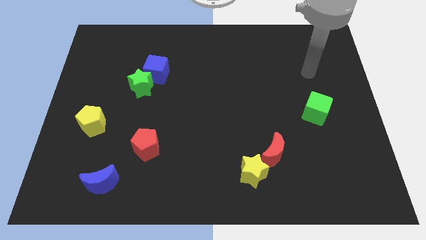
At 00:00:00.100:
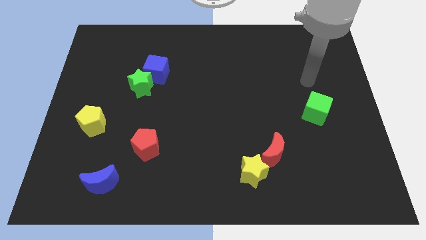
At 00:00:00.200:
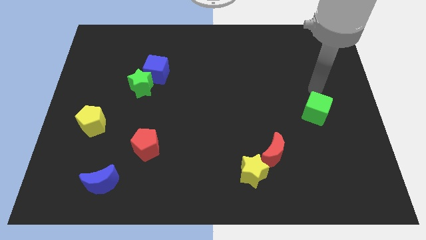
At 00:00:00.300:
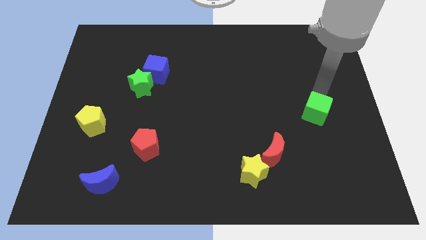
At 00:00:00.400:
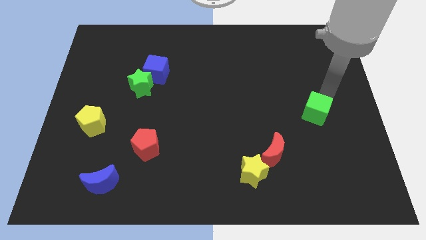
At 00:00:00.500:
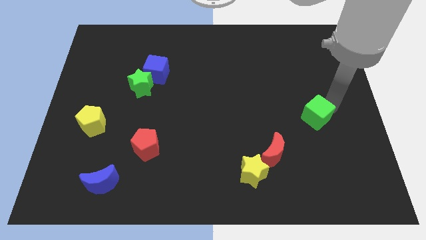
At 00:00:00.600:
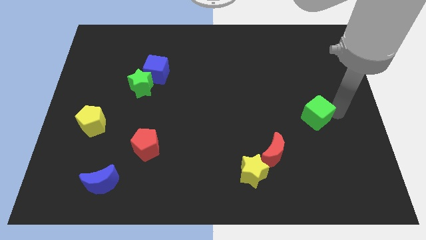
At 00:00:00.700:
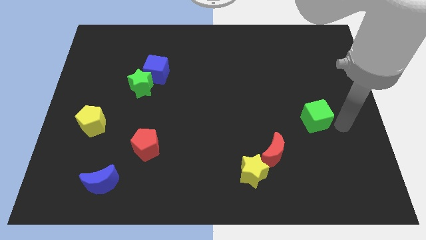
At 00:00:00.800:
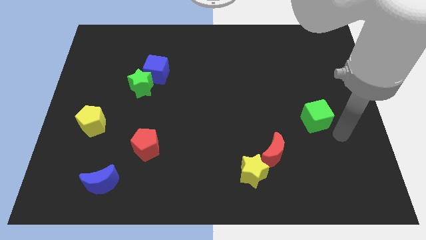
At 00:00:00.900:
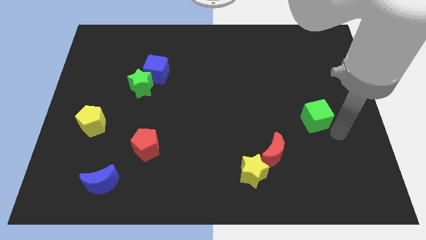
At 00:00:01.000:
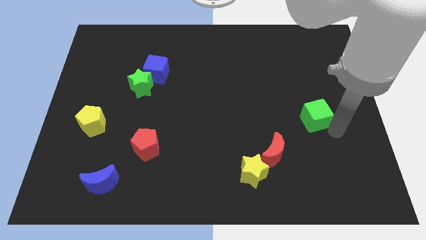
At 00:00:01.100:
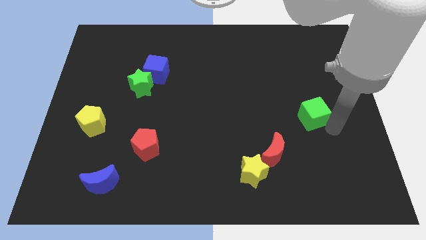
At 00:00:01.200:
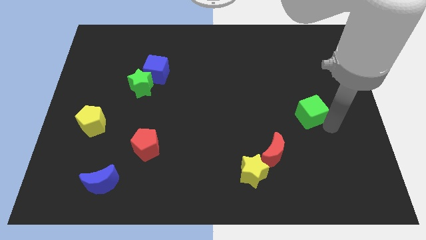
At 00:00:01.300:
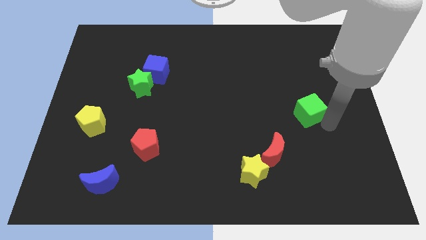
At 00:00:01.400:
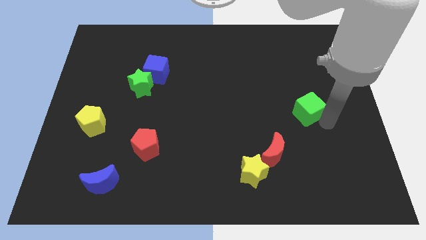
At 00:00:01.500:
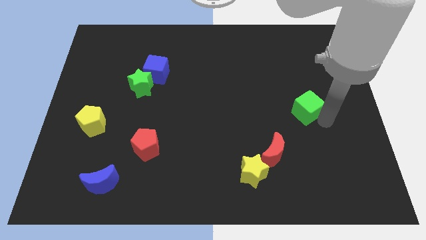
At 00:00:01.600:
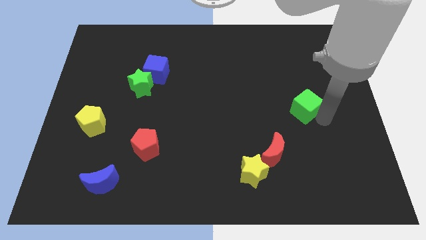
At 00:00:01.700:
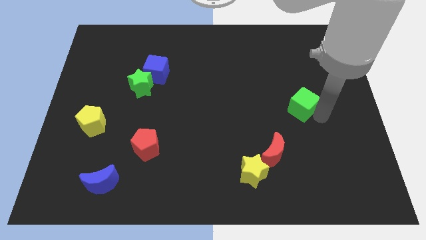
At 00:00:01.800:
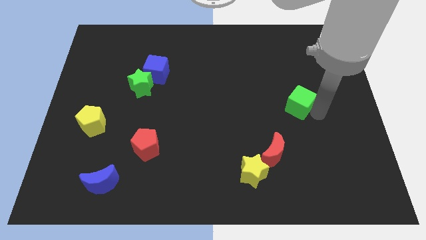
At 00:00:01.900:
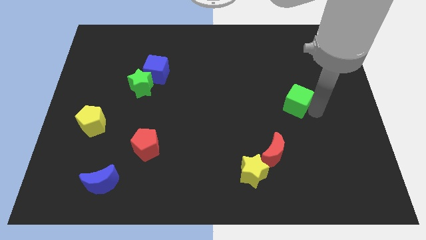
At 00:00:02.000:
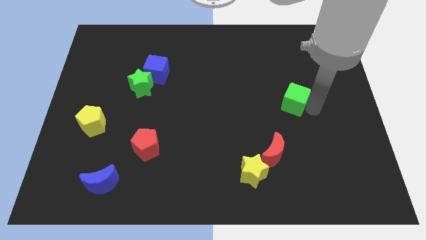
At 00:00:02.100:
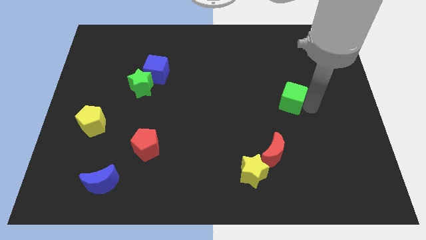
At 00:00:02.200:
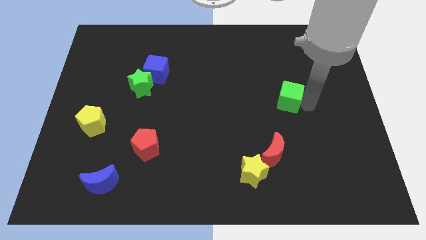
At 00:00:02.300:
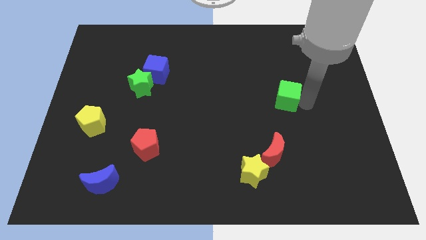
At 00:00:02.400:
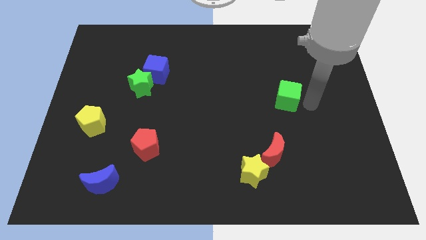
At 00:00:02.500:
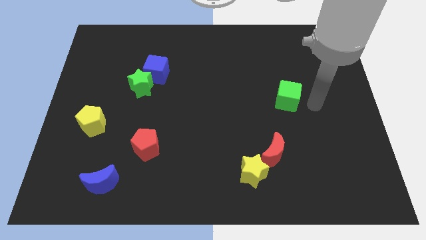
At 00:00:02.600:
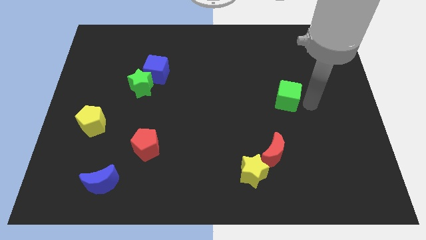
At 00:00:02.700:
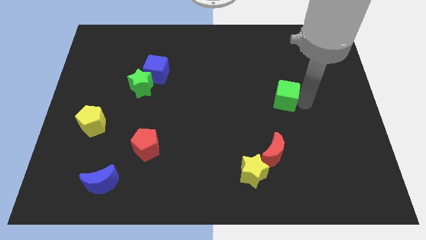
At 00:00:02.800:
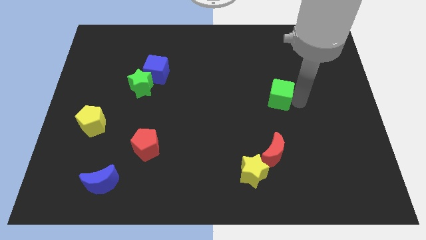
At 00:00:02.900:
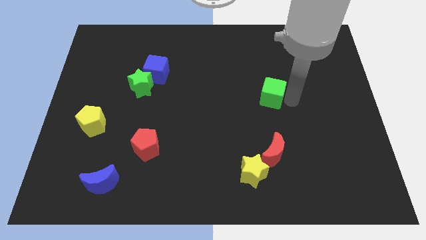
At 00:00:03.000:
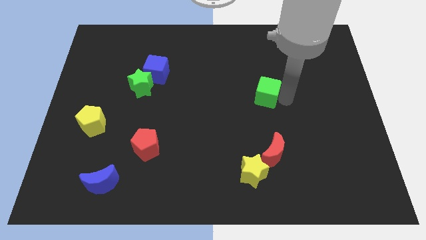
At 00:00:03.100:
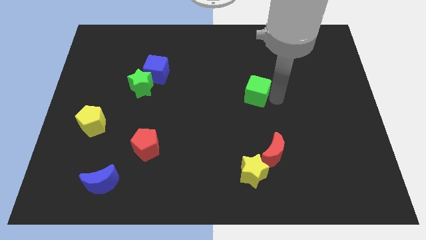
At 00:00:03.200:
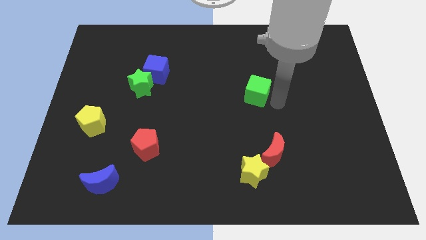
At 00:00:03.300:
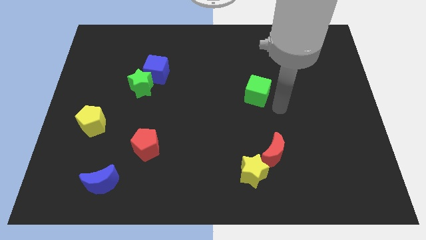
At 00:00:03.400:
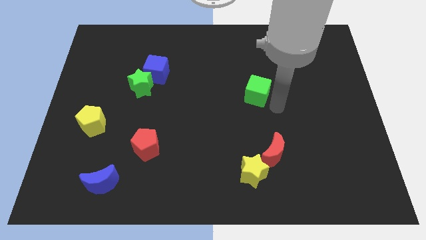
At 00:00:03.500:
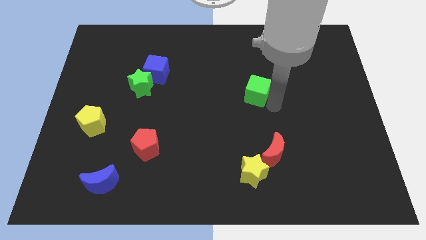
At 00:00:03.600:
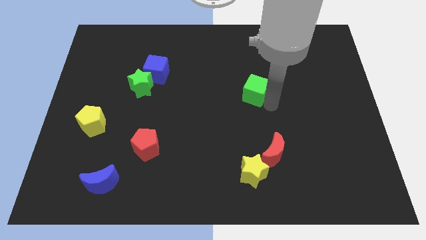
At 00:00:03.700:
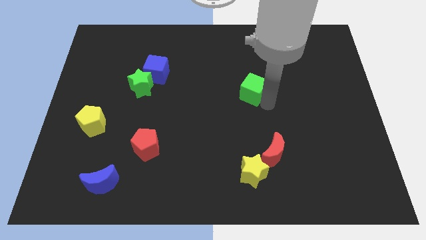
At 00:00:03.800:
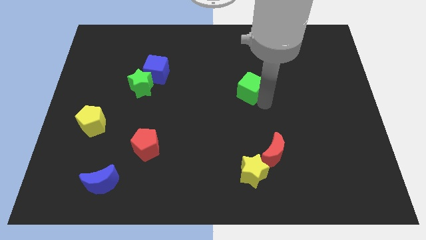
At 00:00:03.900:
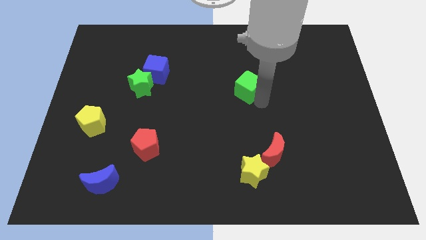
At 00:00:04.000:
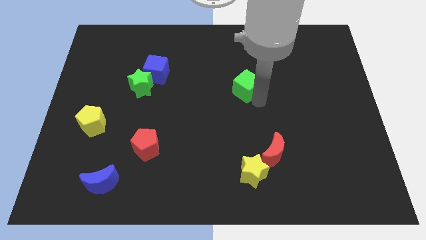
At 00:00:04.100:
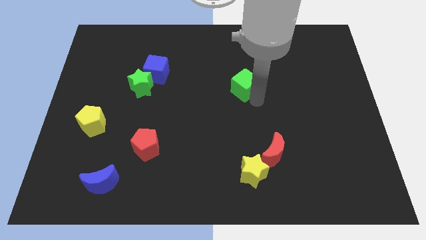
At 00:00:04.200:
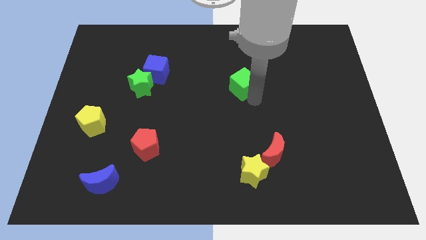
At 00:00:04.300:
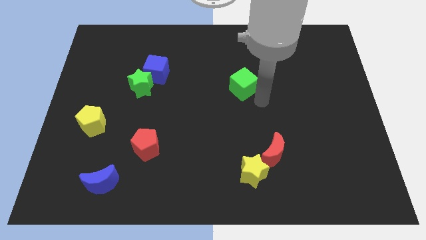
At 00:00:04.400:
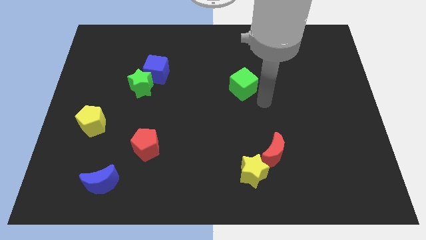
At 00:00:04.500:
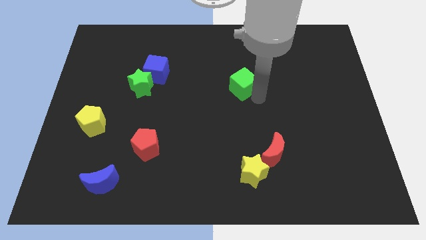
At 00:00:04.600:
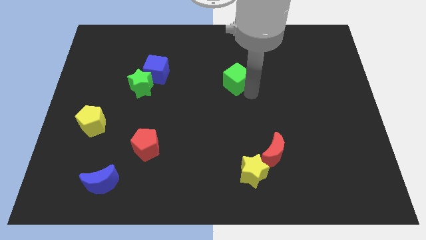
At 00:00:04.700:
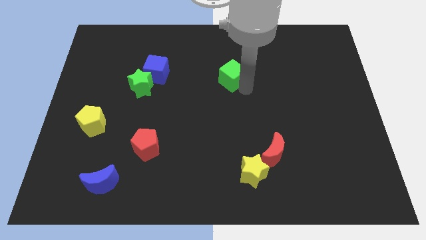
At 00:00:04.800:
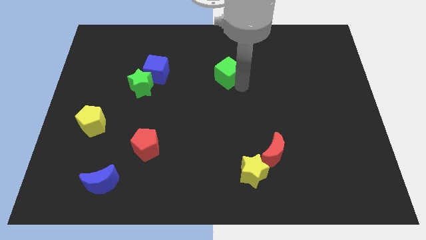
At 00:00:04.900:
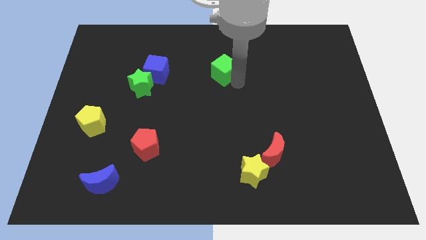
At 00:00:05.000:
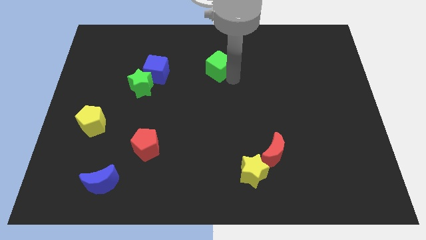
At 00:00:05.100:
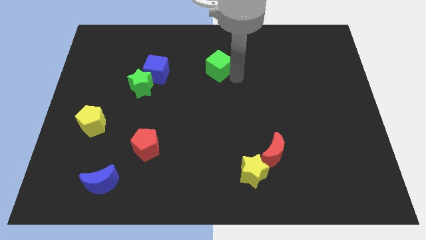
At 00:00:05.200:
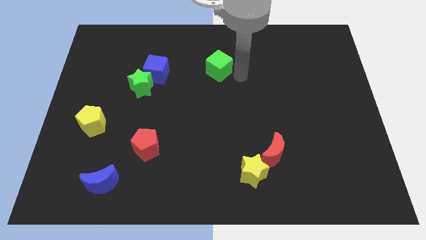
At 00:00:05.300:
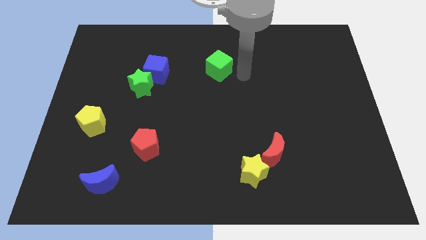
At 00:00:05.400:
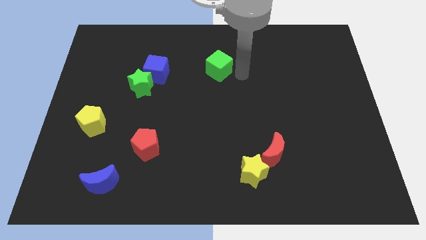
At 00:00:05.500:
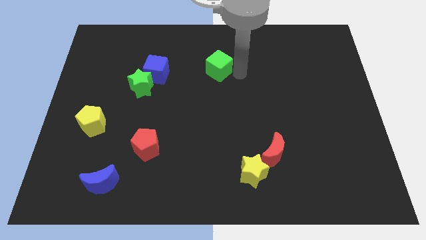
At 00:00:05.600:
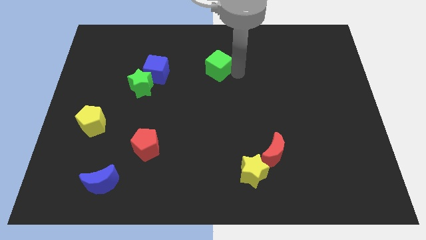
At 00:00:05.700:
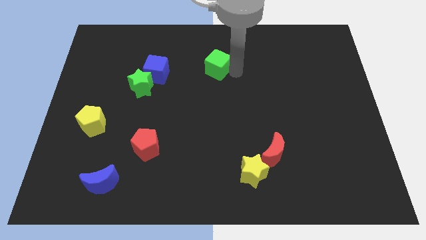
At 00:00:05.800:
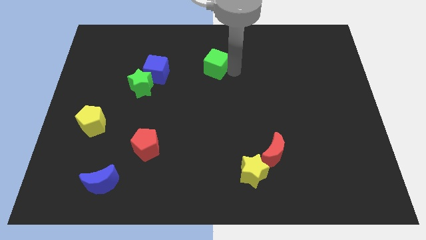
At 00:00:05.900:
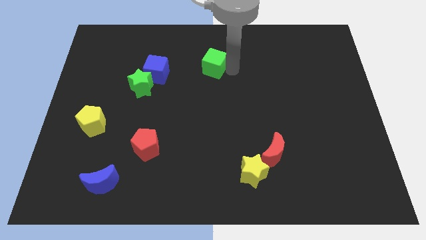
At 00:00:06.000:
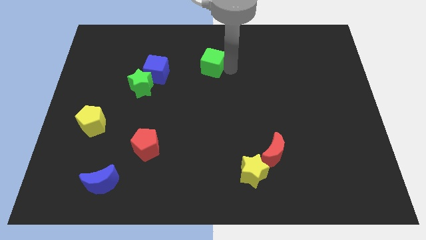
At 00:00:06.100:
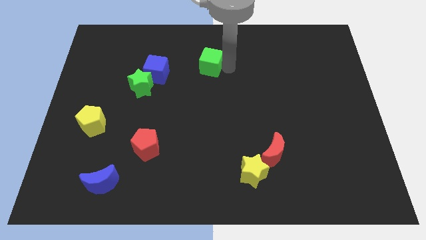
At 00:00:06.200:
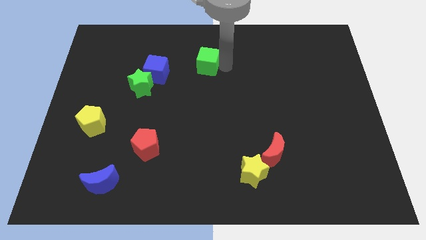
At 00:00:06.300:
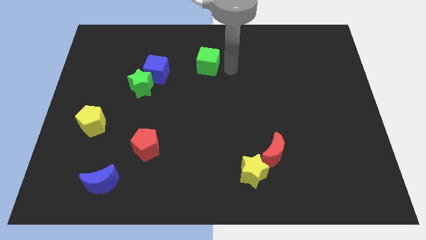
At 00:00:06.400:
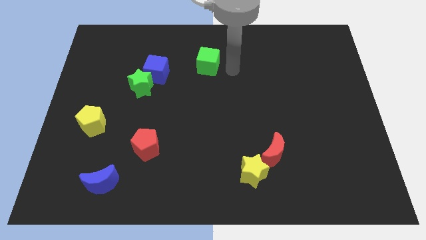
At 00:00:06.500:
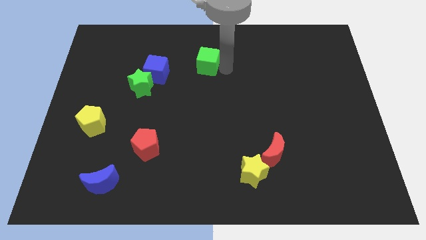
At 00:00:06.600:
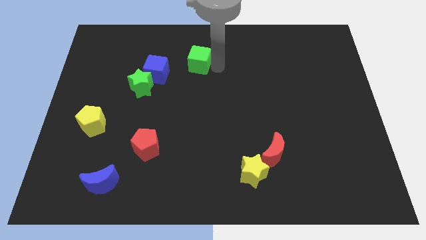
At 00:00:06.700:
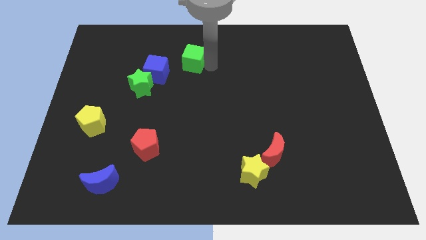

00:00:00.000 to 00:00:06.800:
push the green cube to the top right side of the blue cube

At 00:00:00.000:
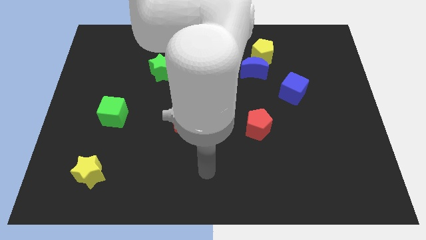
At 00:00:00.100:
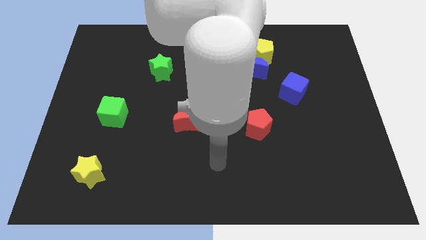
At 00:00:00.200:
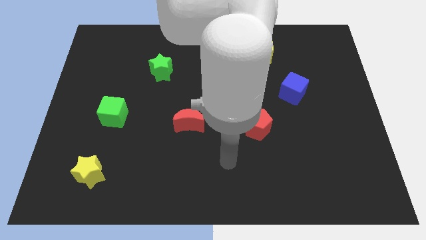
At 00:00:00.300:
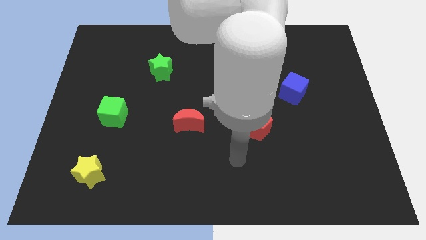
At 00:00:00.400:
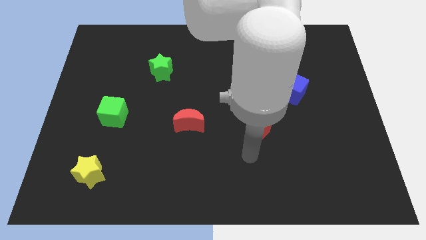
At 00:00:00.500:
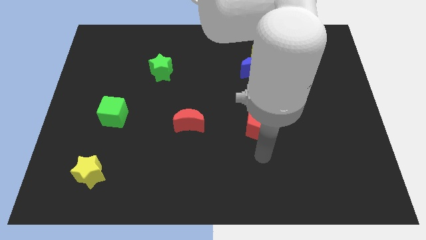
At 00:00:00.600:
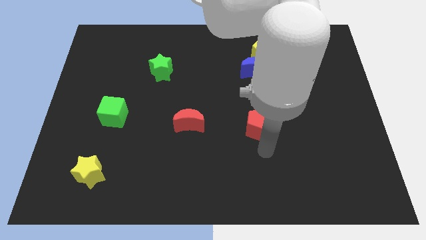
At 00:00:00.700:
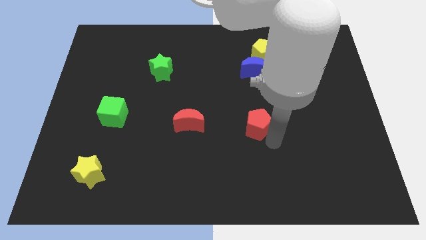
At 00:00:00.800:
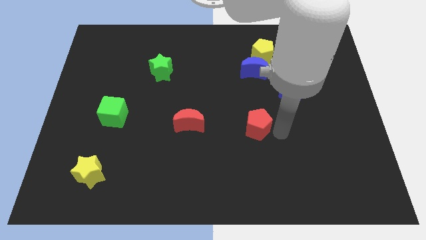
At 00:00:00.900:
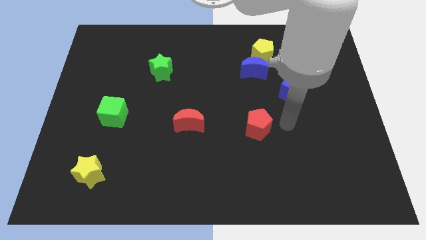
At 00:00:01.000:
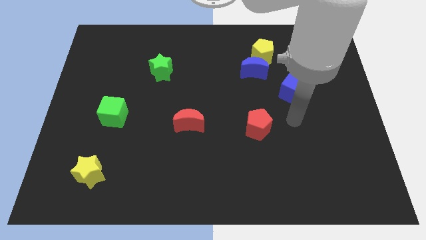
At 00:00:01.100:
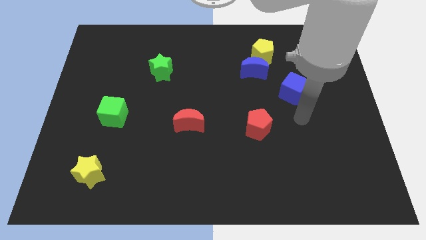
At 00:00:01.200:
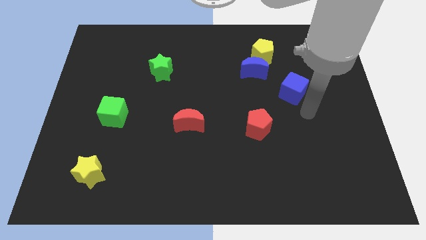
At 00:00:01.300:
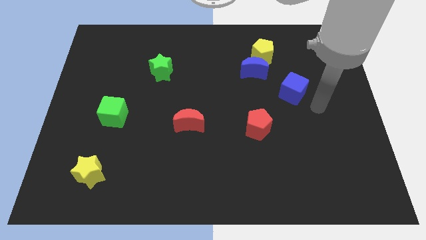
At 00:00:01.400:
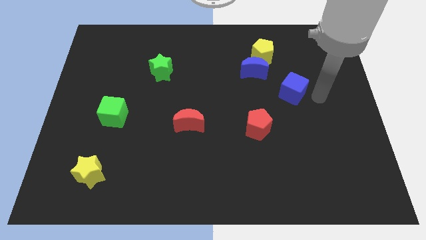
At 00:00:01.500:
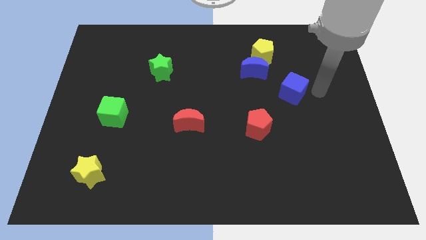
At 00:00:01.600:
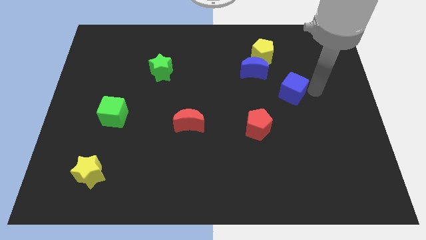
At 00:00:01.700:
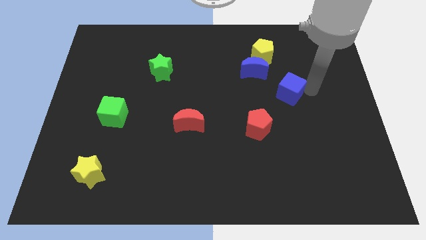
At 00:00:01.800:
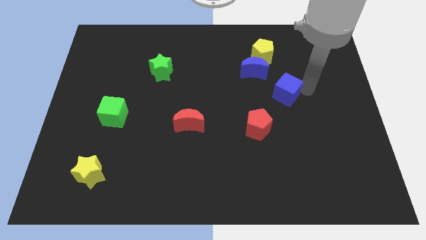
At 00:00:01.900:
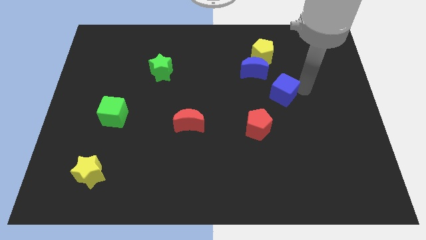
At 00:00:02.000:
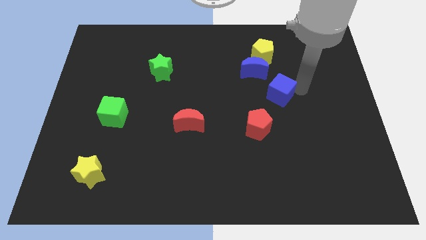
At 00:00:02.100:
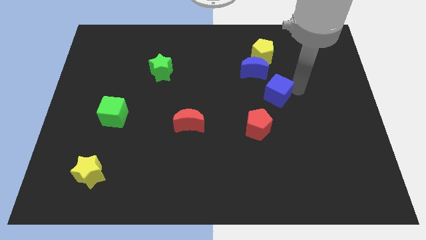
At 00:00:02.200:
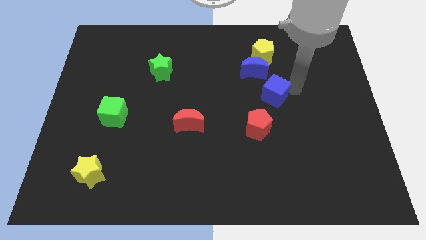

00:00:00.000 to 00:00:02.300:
put the blue cube to the top of the red pentagon
